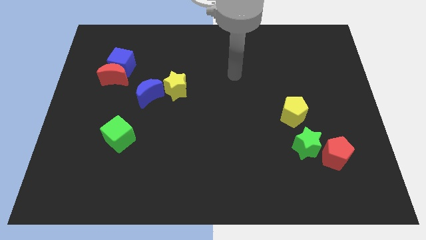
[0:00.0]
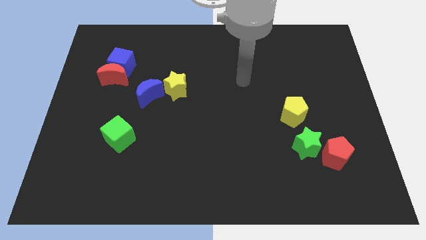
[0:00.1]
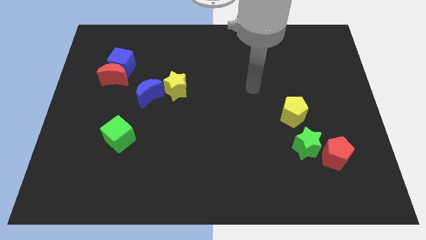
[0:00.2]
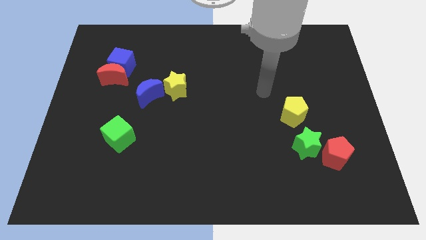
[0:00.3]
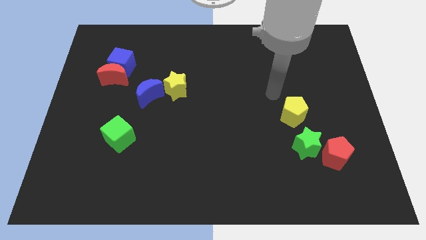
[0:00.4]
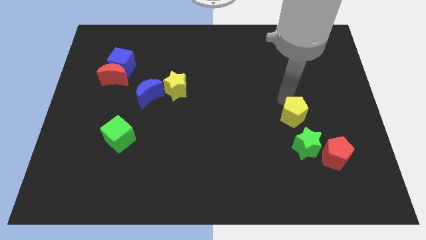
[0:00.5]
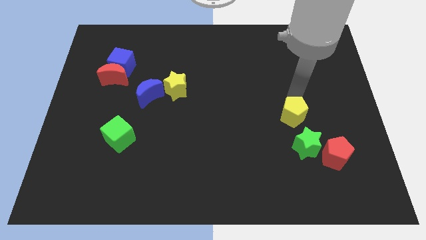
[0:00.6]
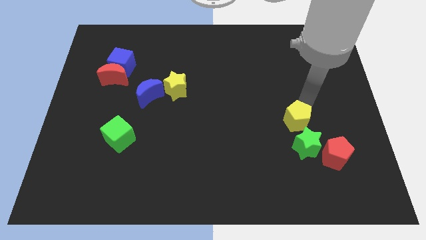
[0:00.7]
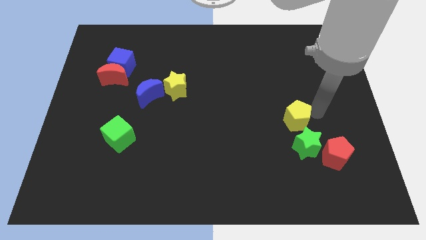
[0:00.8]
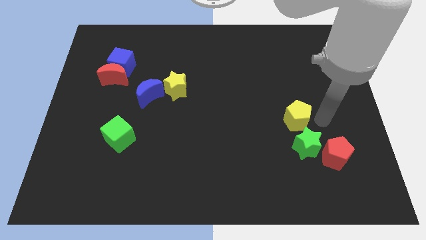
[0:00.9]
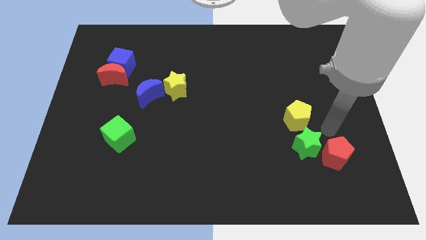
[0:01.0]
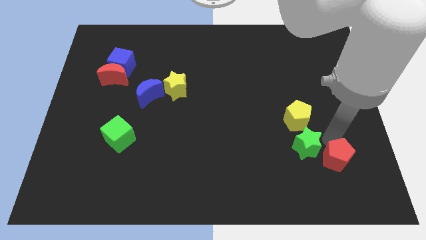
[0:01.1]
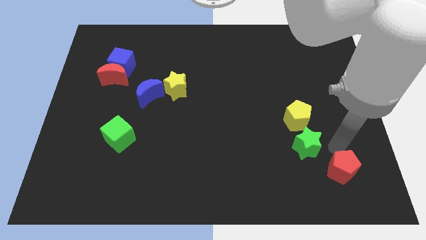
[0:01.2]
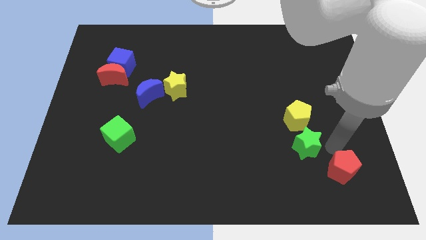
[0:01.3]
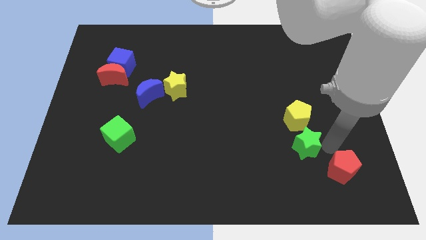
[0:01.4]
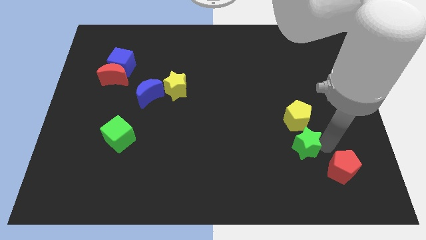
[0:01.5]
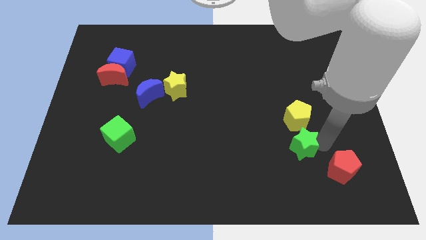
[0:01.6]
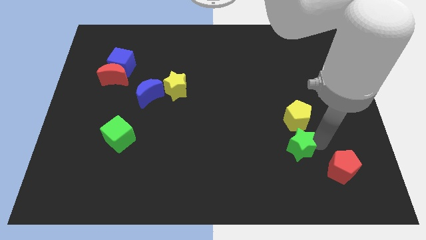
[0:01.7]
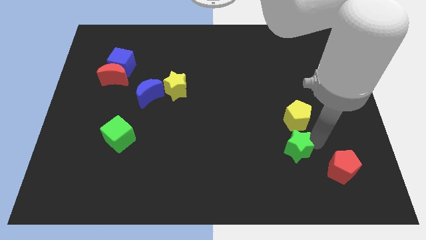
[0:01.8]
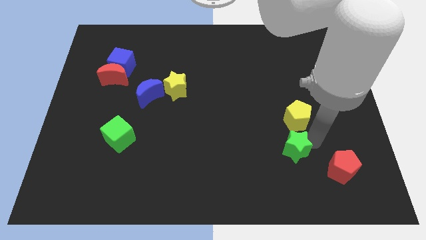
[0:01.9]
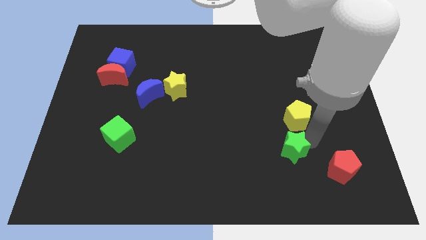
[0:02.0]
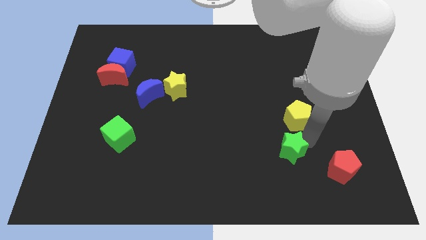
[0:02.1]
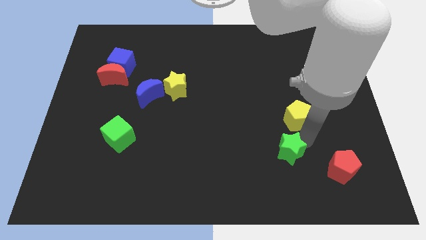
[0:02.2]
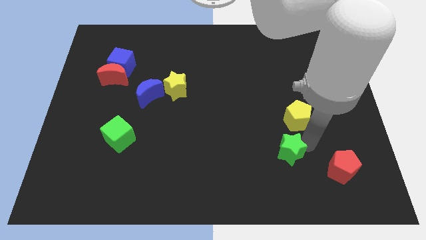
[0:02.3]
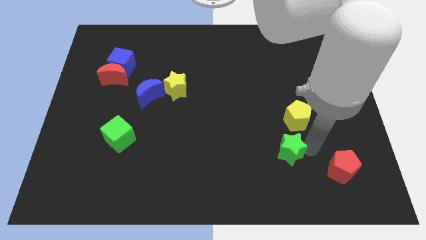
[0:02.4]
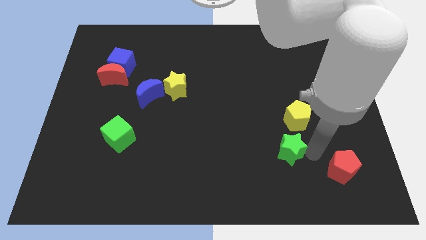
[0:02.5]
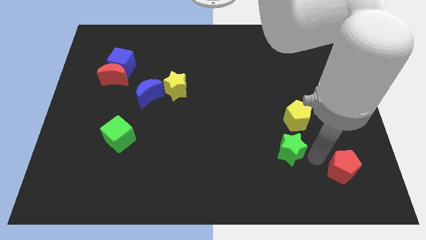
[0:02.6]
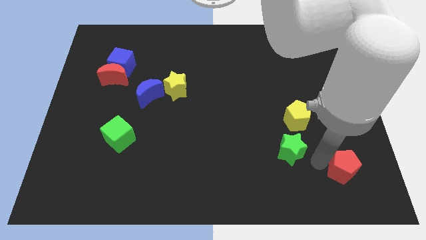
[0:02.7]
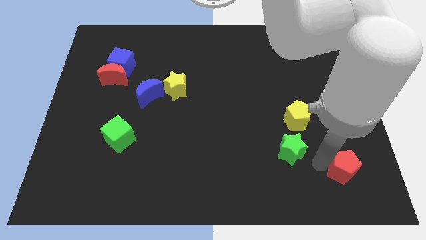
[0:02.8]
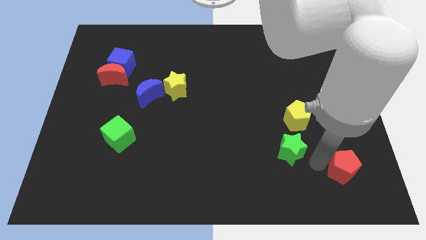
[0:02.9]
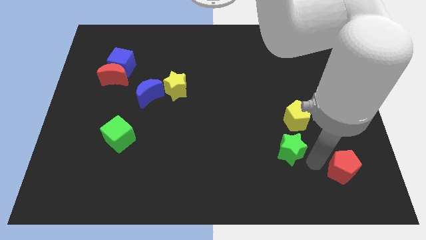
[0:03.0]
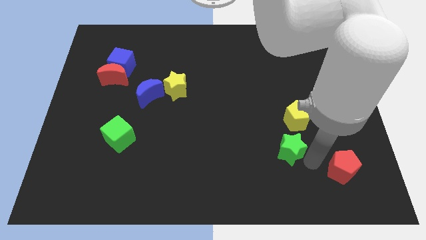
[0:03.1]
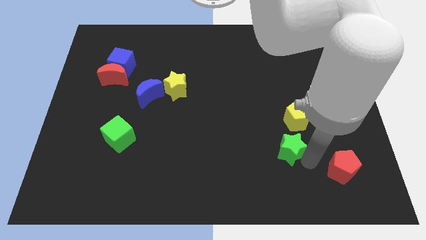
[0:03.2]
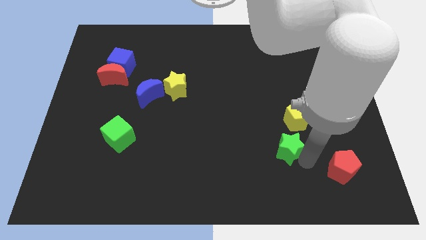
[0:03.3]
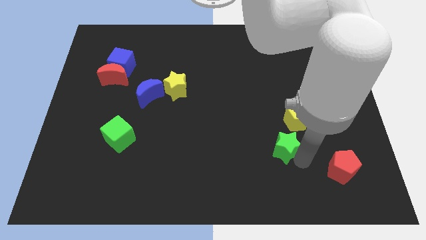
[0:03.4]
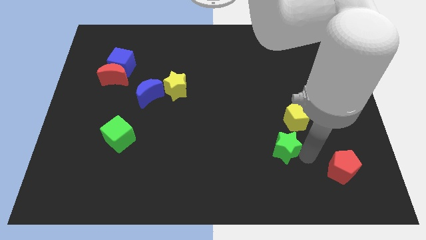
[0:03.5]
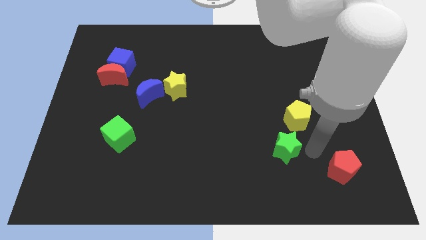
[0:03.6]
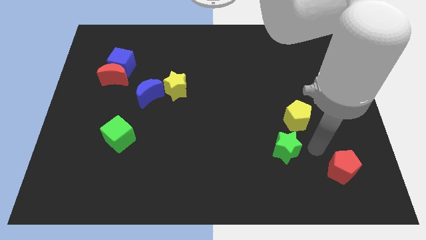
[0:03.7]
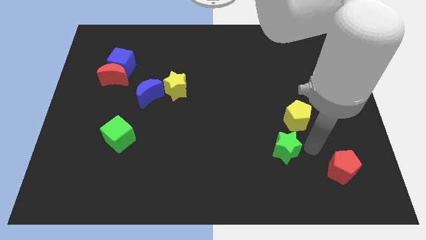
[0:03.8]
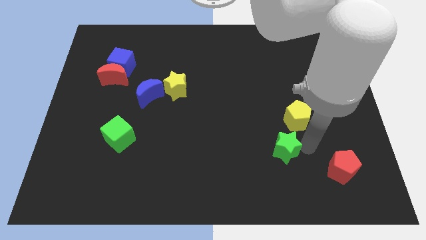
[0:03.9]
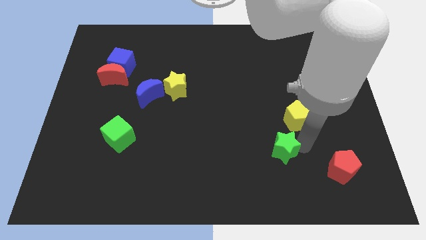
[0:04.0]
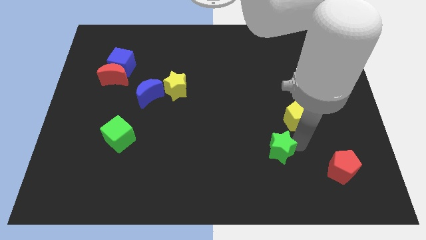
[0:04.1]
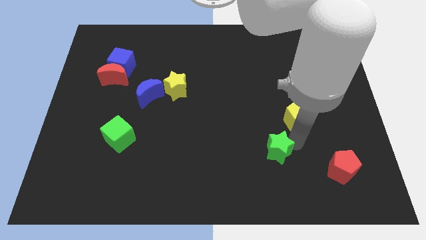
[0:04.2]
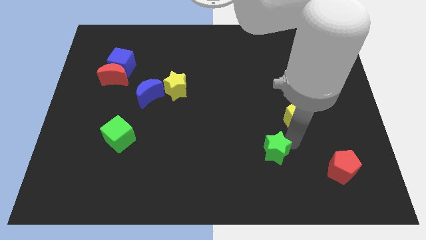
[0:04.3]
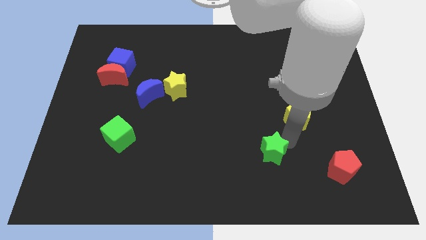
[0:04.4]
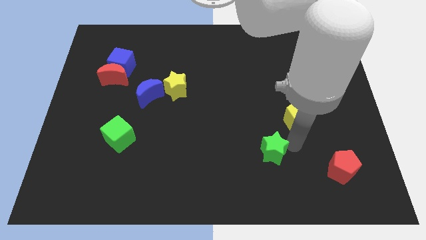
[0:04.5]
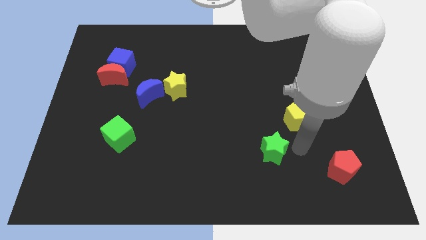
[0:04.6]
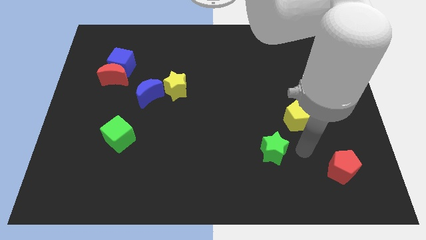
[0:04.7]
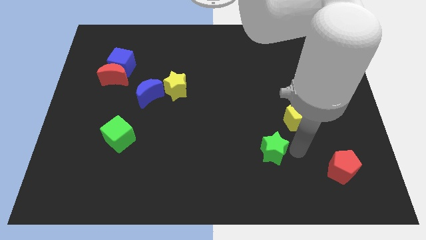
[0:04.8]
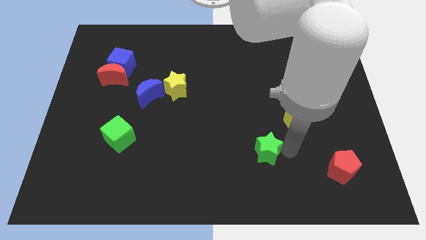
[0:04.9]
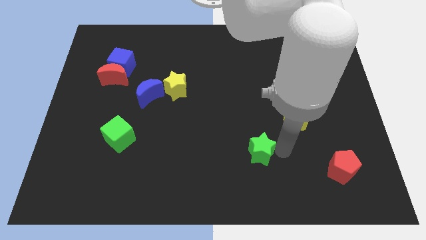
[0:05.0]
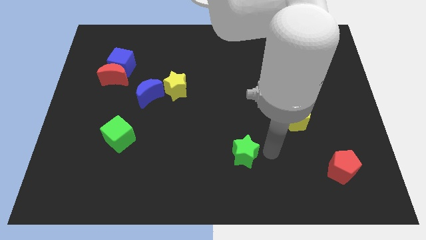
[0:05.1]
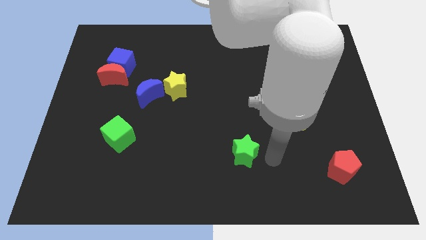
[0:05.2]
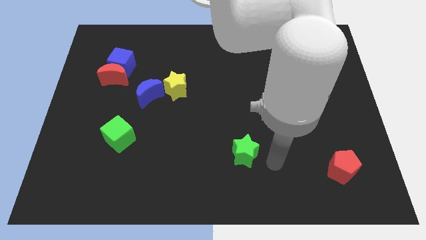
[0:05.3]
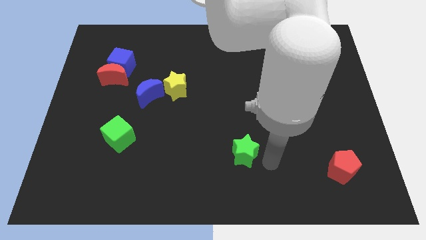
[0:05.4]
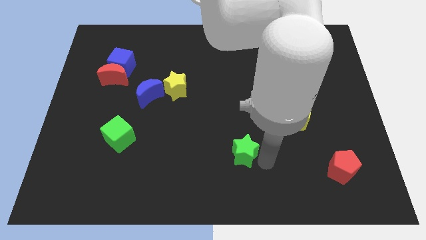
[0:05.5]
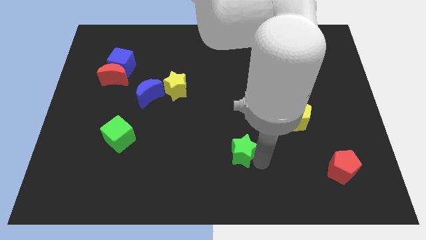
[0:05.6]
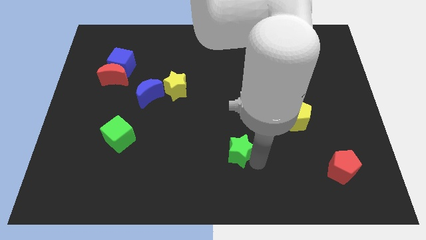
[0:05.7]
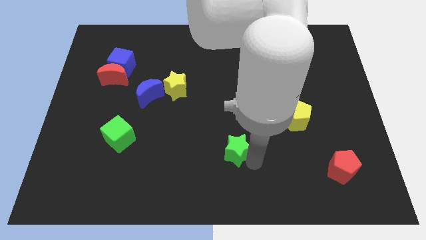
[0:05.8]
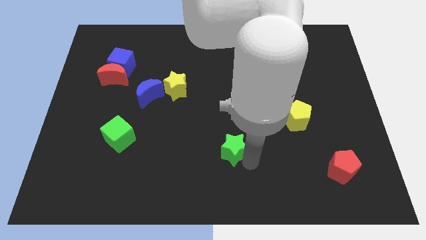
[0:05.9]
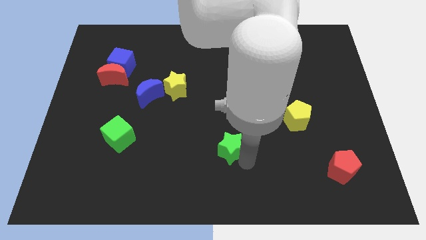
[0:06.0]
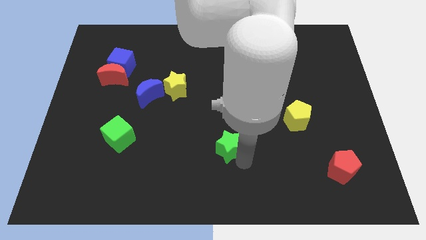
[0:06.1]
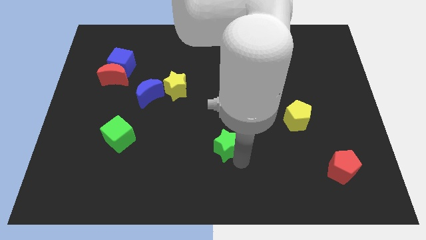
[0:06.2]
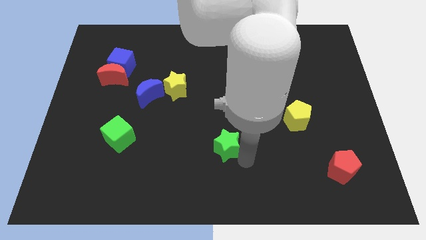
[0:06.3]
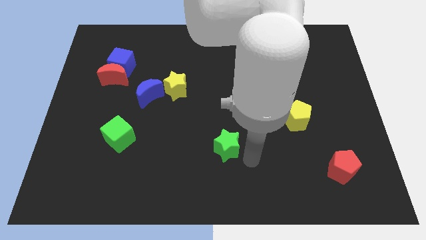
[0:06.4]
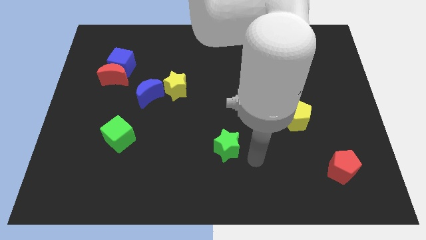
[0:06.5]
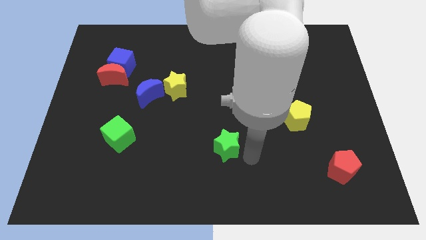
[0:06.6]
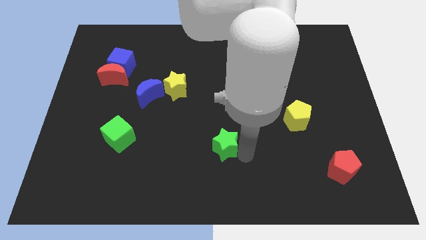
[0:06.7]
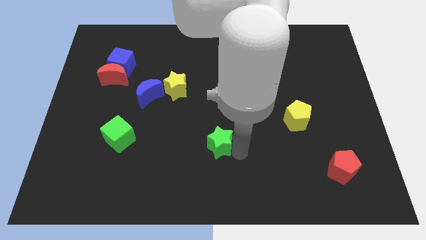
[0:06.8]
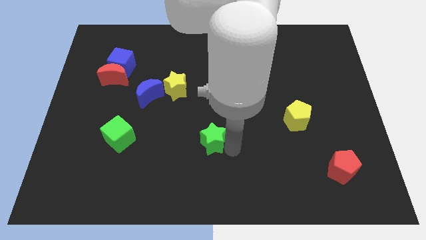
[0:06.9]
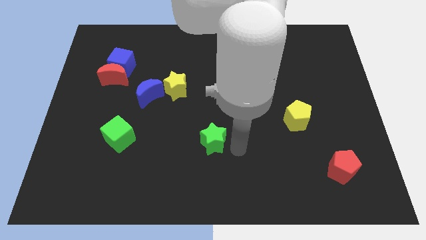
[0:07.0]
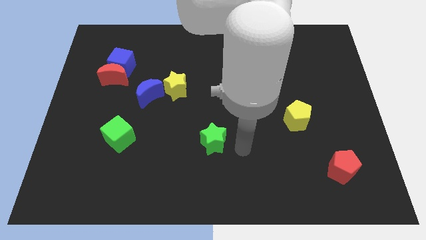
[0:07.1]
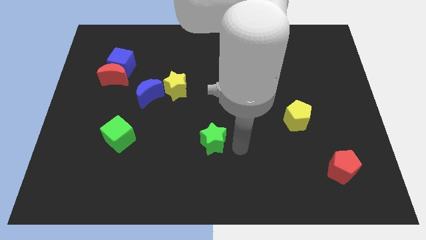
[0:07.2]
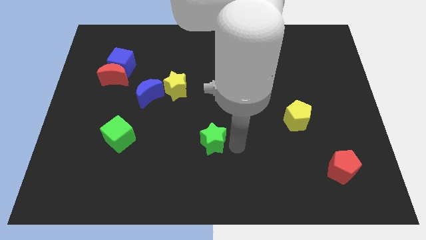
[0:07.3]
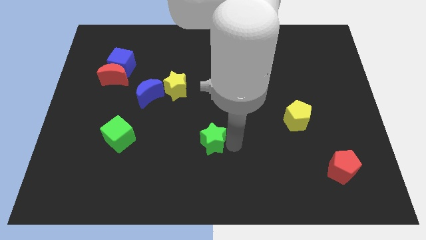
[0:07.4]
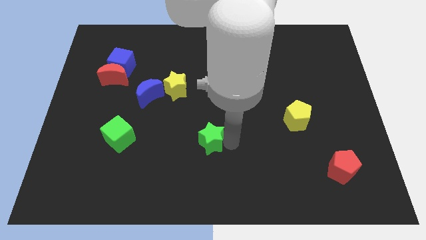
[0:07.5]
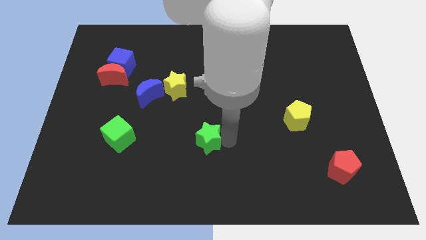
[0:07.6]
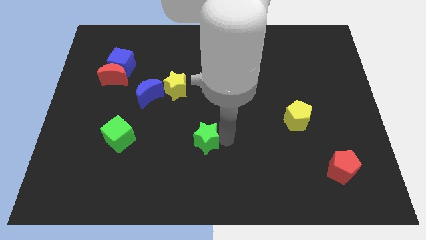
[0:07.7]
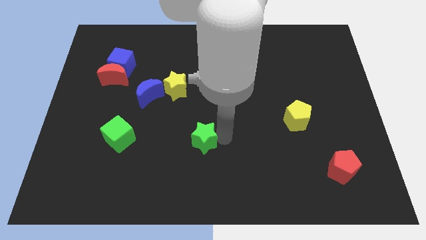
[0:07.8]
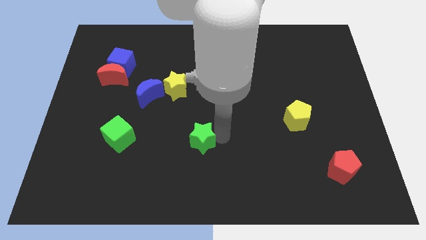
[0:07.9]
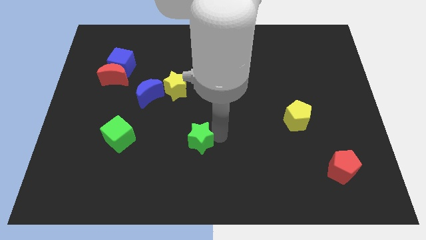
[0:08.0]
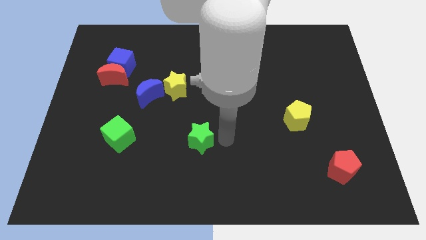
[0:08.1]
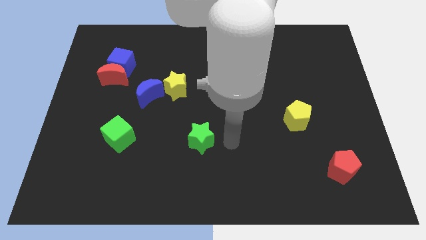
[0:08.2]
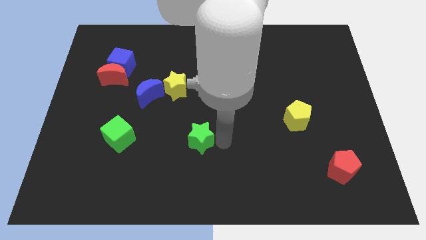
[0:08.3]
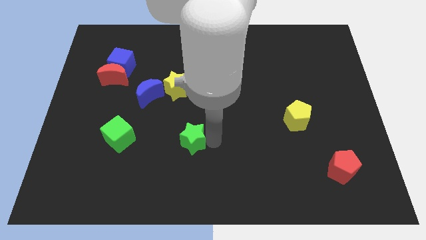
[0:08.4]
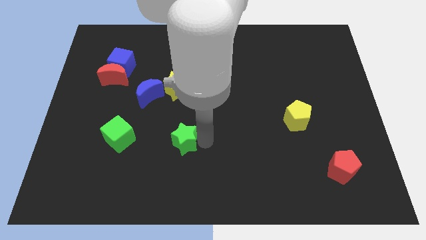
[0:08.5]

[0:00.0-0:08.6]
put the green star to the right of the green cube
